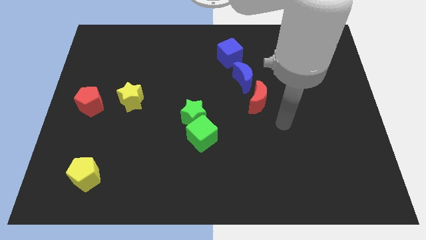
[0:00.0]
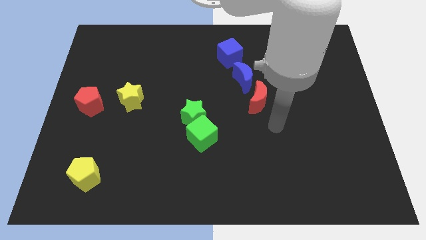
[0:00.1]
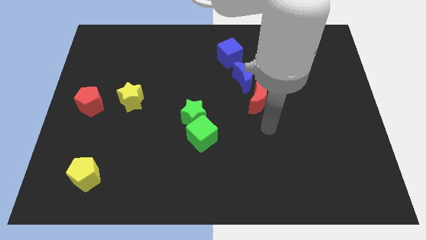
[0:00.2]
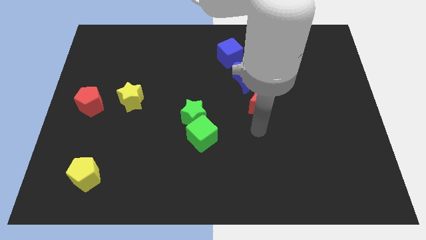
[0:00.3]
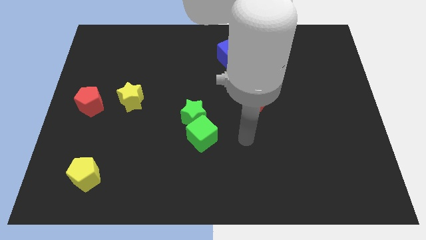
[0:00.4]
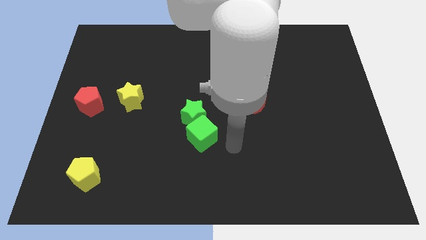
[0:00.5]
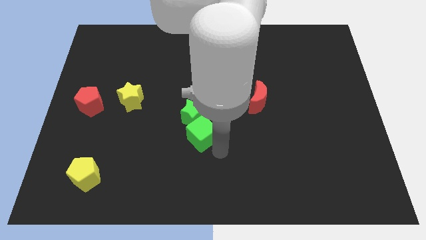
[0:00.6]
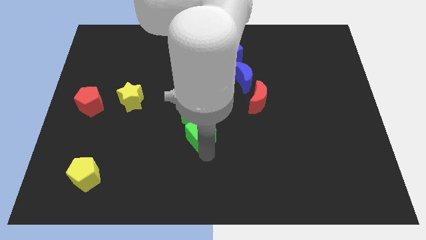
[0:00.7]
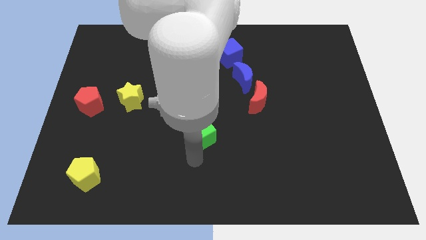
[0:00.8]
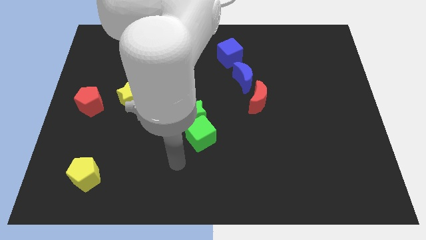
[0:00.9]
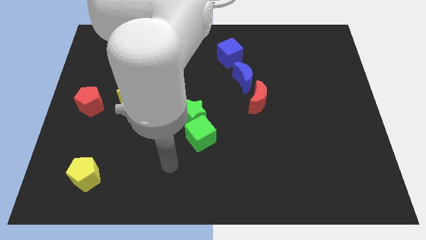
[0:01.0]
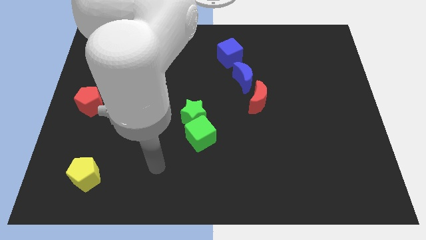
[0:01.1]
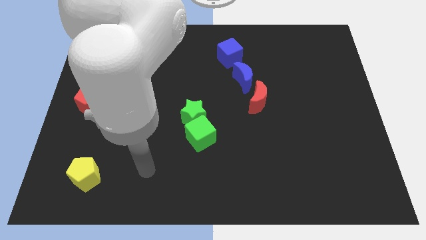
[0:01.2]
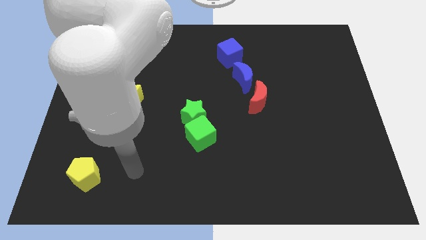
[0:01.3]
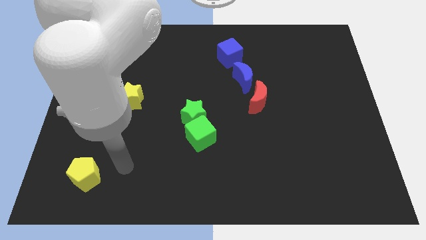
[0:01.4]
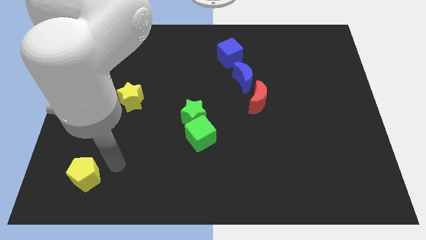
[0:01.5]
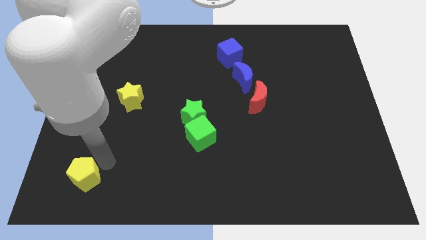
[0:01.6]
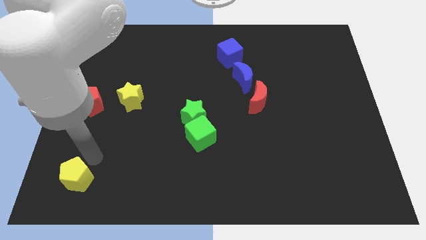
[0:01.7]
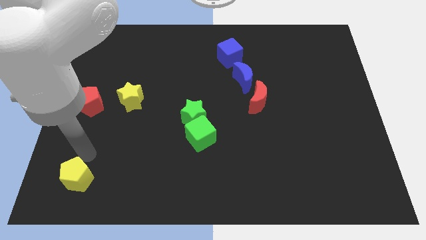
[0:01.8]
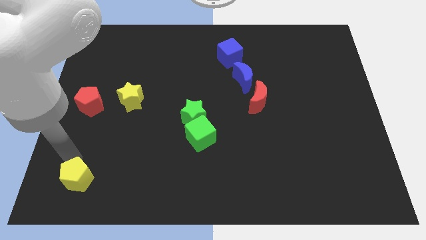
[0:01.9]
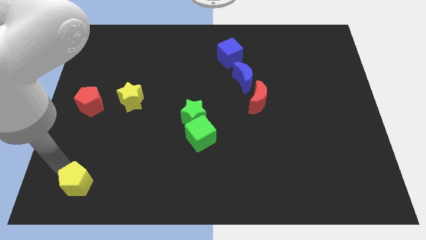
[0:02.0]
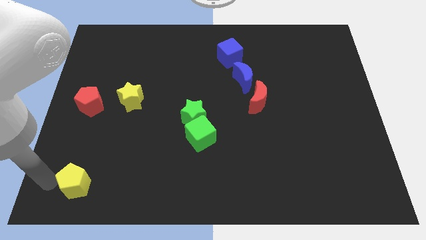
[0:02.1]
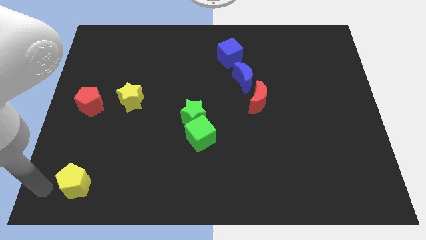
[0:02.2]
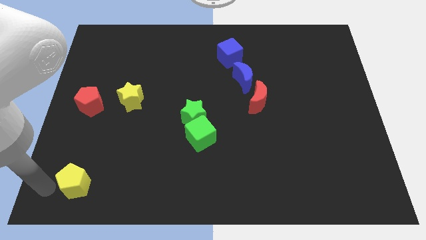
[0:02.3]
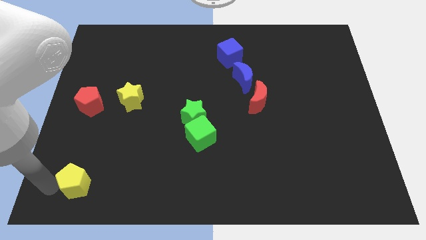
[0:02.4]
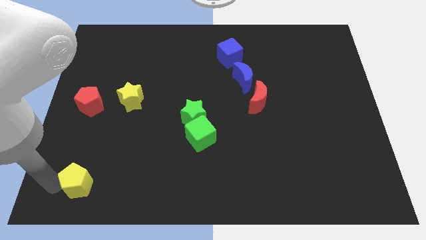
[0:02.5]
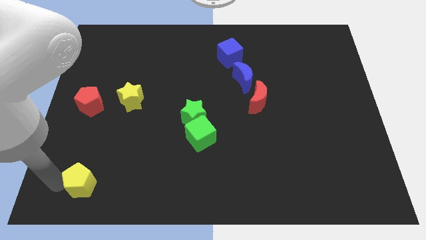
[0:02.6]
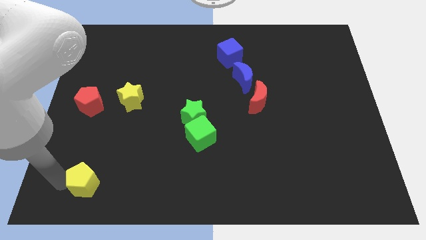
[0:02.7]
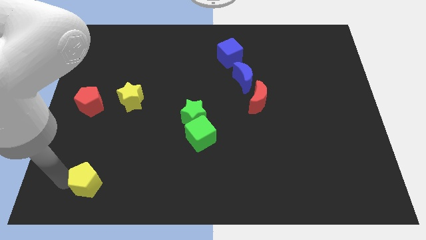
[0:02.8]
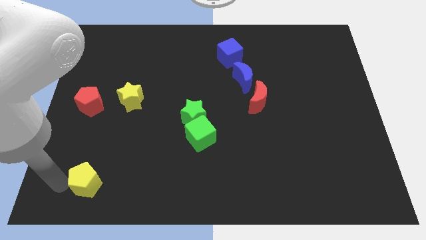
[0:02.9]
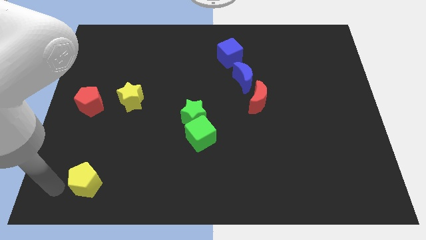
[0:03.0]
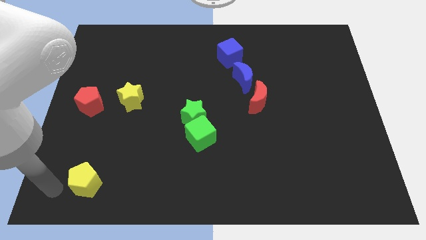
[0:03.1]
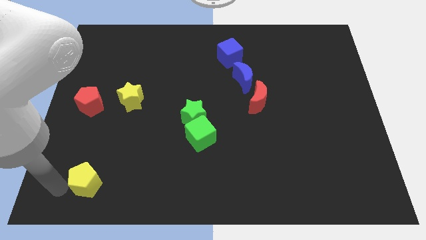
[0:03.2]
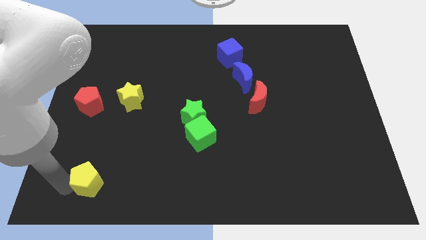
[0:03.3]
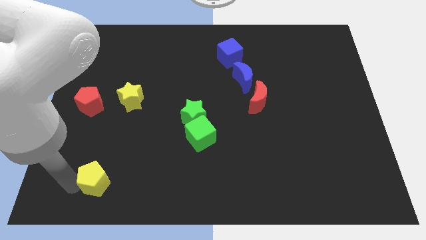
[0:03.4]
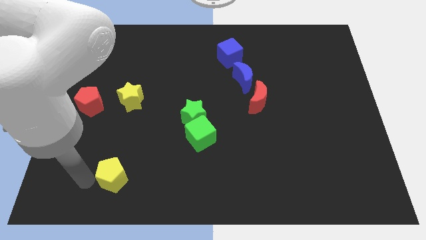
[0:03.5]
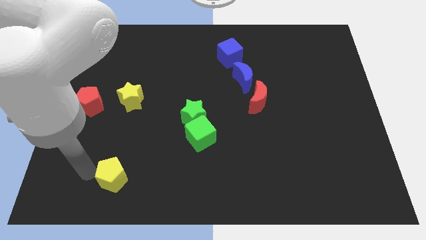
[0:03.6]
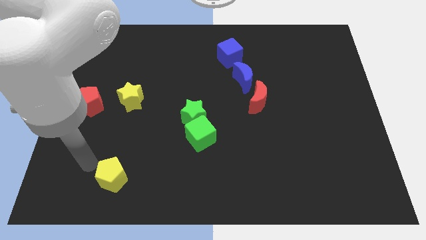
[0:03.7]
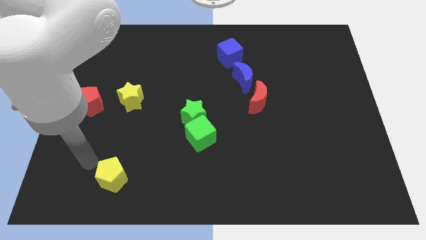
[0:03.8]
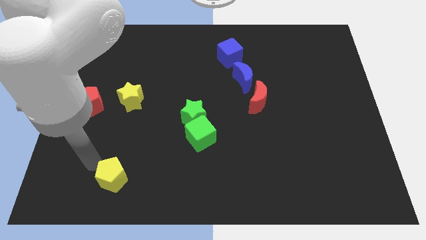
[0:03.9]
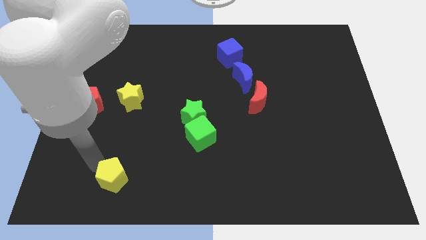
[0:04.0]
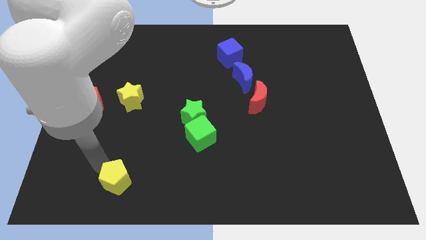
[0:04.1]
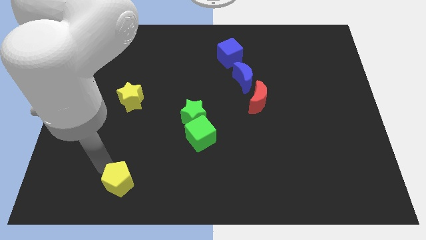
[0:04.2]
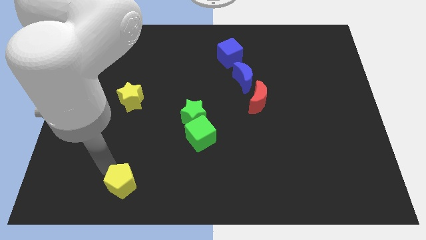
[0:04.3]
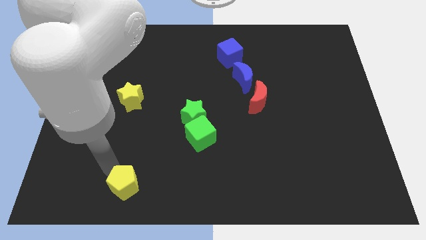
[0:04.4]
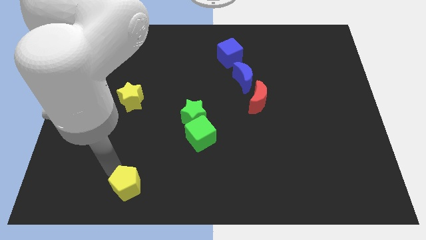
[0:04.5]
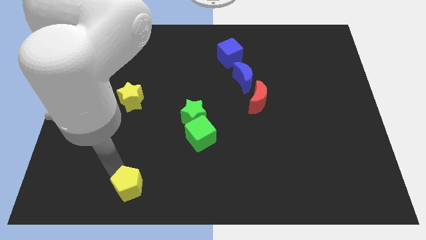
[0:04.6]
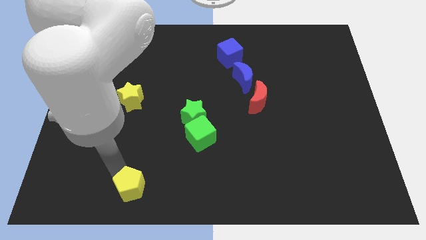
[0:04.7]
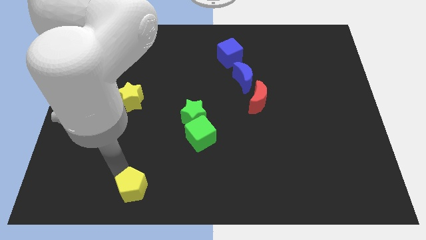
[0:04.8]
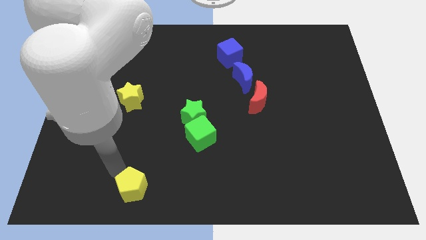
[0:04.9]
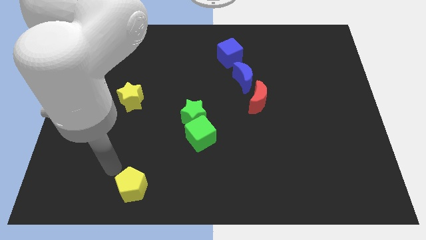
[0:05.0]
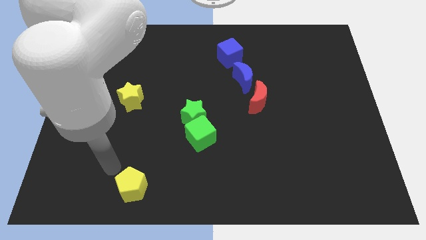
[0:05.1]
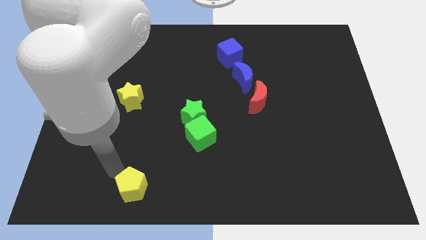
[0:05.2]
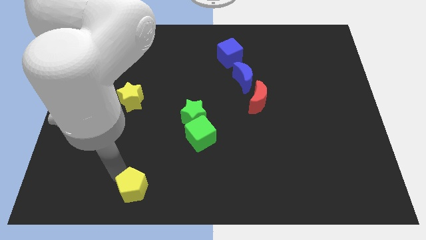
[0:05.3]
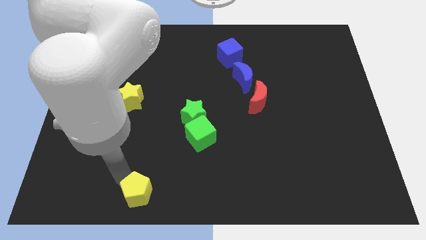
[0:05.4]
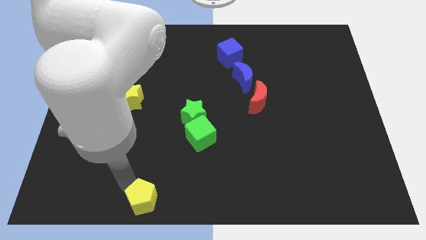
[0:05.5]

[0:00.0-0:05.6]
slide the yellow pentagon to the bottom

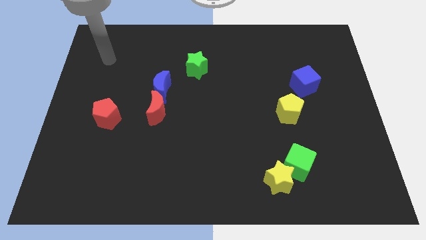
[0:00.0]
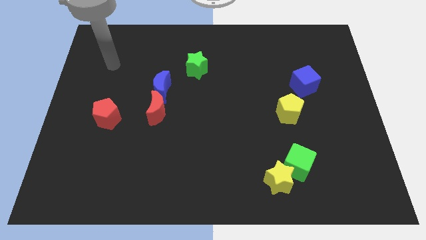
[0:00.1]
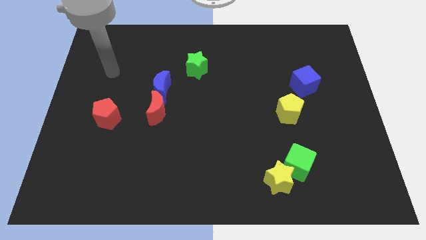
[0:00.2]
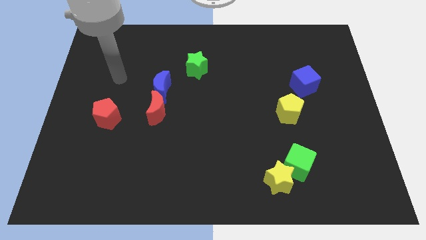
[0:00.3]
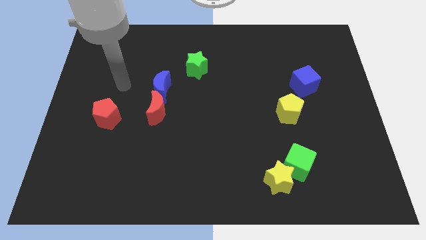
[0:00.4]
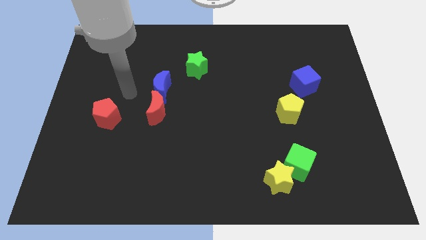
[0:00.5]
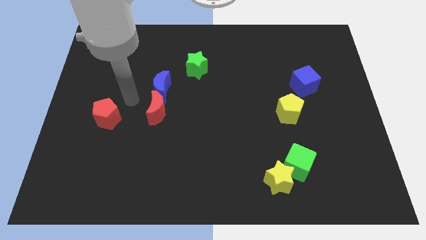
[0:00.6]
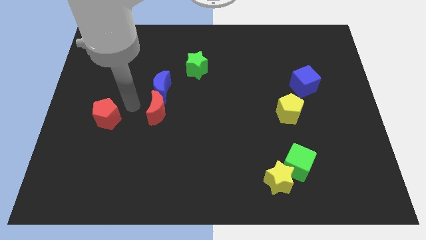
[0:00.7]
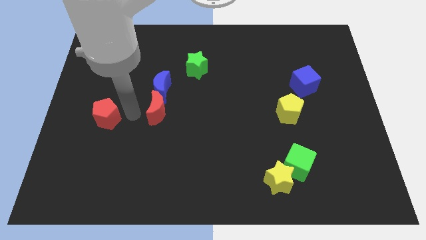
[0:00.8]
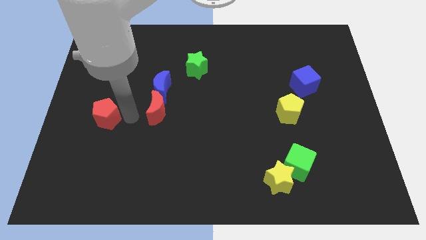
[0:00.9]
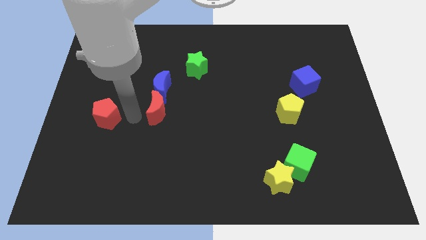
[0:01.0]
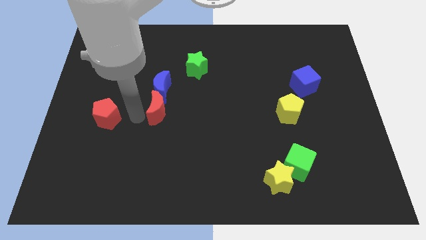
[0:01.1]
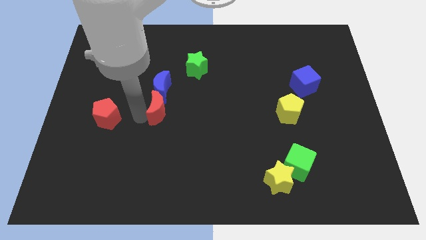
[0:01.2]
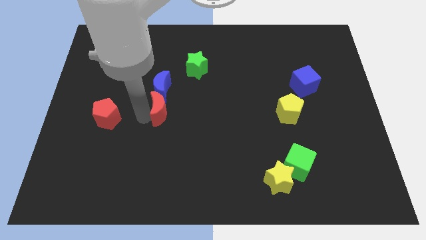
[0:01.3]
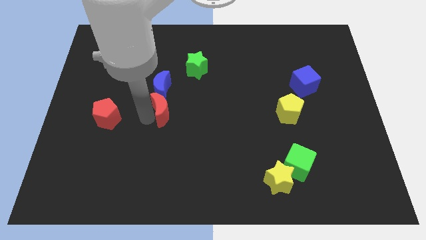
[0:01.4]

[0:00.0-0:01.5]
put the red moon to the center of the board
